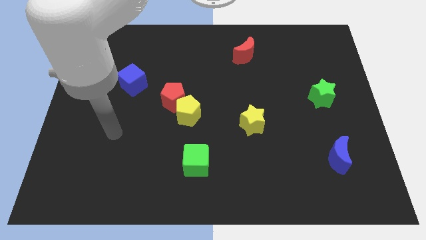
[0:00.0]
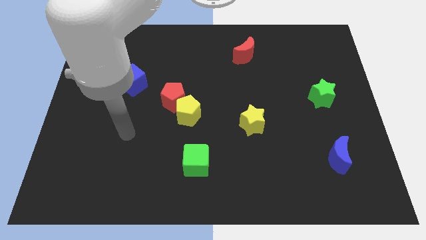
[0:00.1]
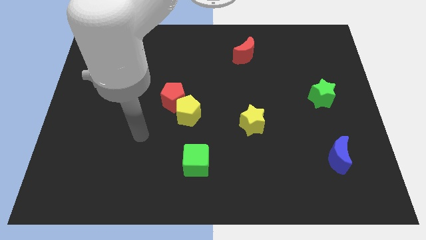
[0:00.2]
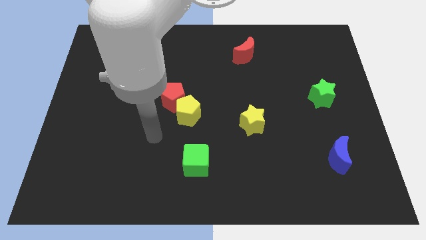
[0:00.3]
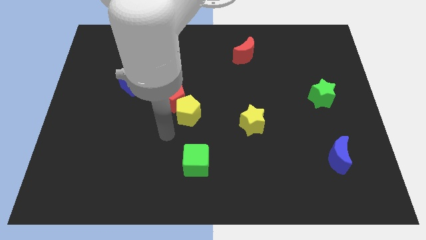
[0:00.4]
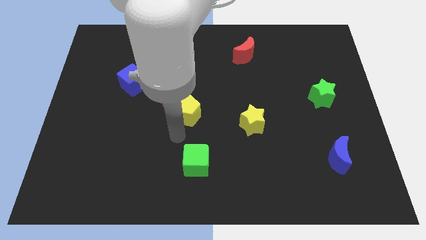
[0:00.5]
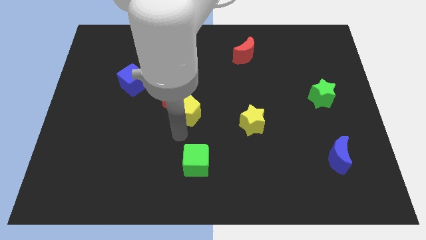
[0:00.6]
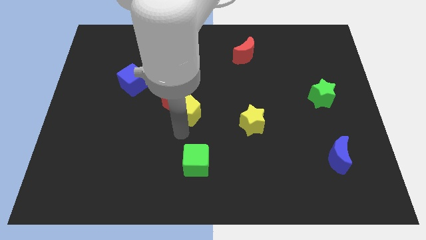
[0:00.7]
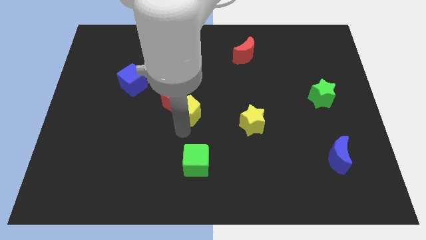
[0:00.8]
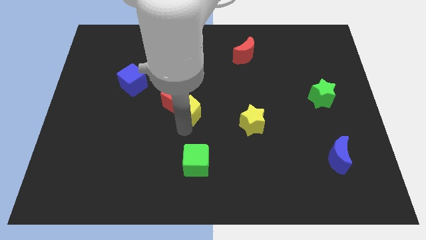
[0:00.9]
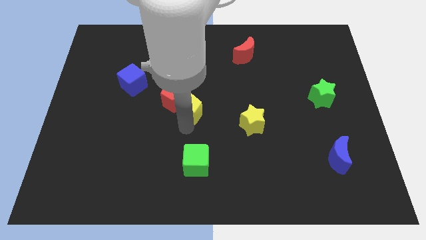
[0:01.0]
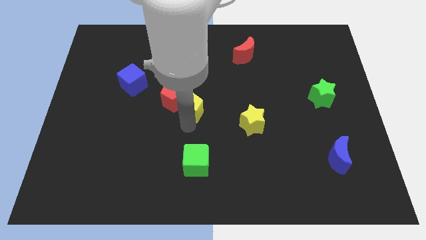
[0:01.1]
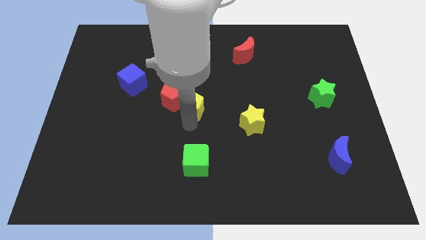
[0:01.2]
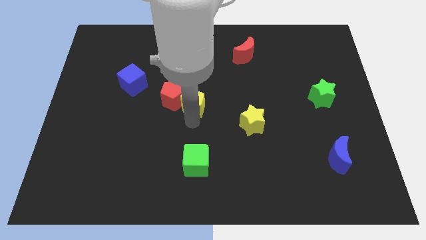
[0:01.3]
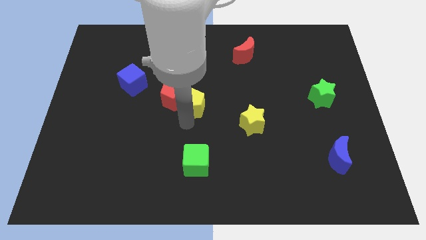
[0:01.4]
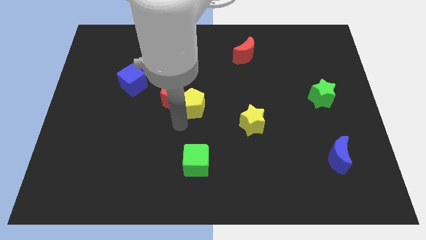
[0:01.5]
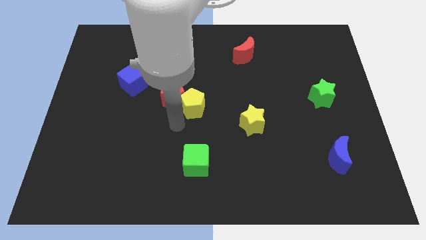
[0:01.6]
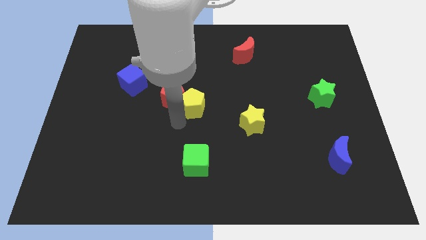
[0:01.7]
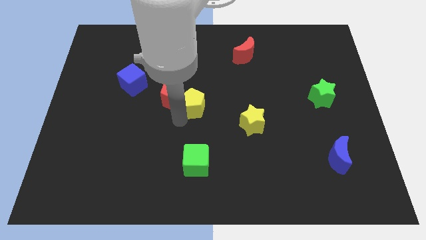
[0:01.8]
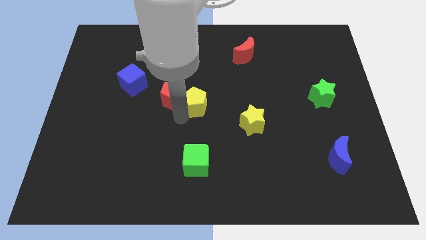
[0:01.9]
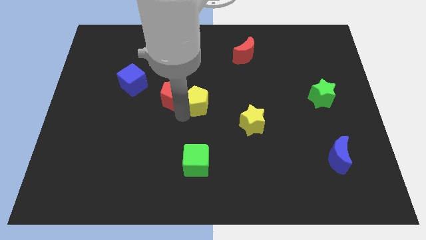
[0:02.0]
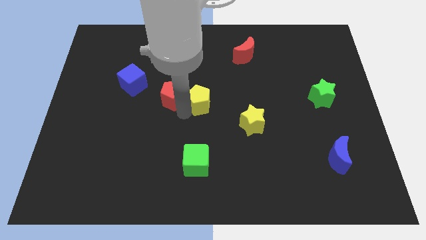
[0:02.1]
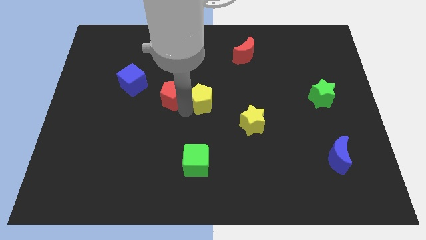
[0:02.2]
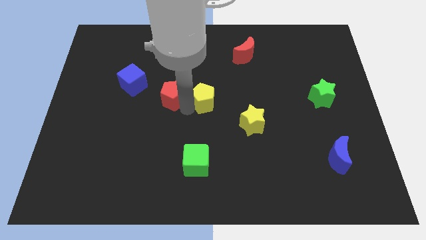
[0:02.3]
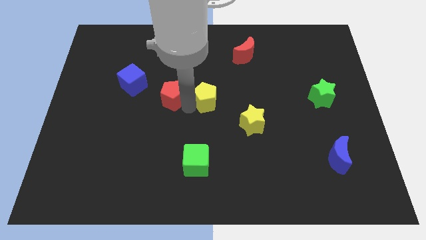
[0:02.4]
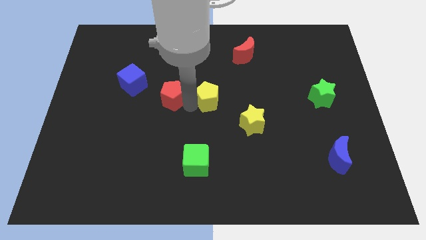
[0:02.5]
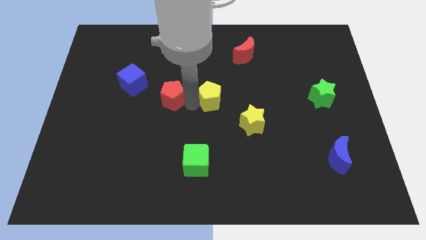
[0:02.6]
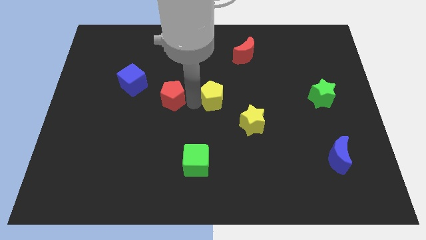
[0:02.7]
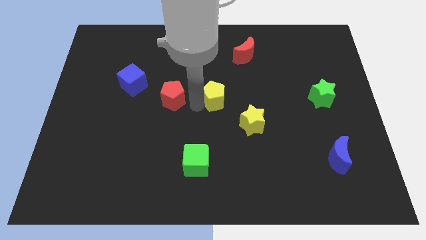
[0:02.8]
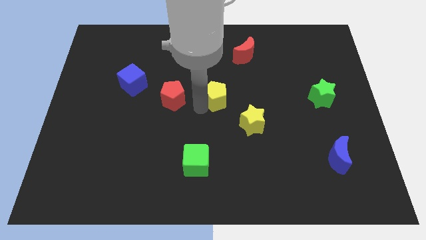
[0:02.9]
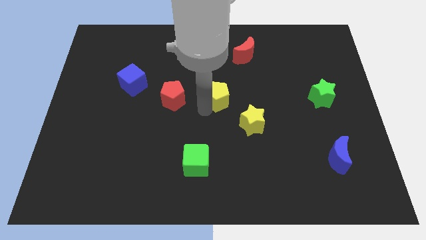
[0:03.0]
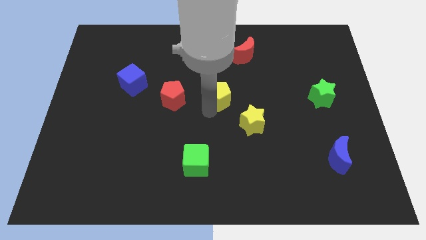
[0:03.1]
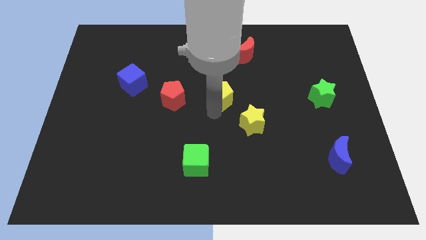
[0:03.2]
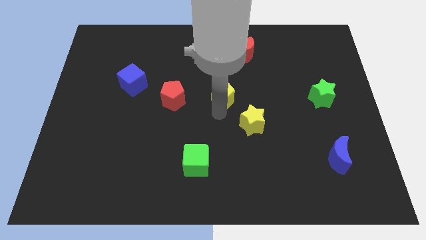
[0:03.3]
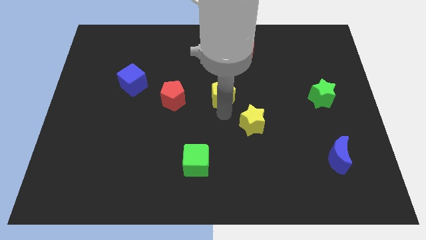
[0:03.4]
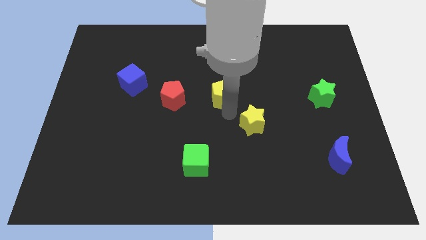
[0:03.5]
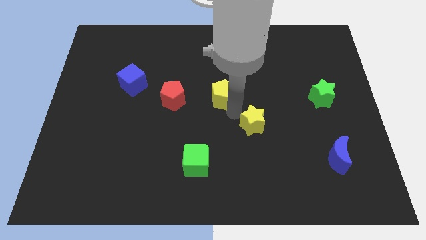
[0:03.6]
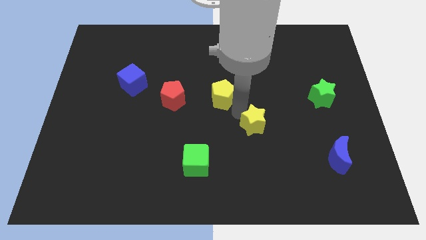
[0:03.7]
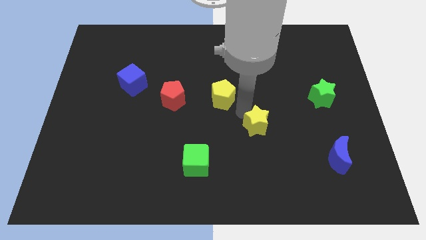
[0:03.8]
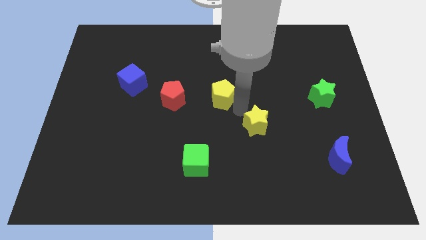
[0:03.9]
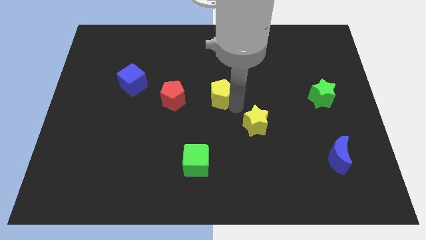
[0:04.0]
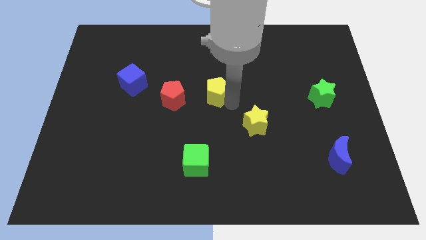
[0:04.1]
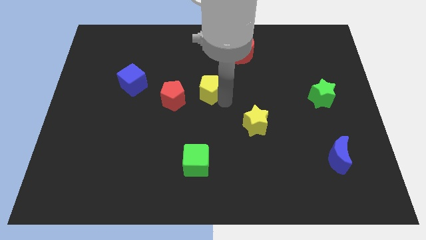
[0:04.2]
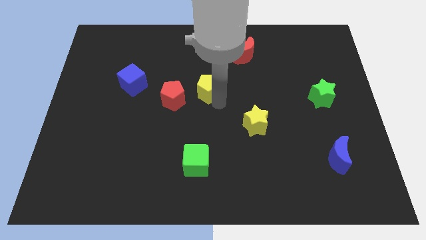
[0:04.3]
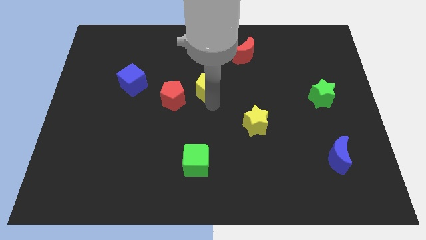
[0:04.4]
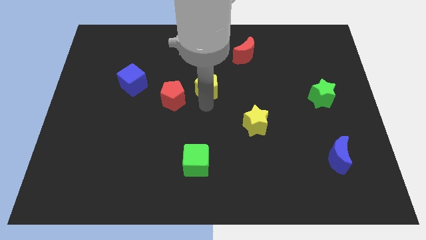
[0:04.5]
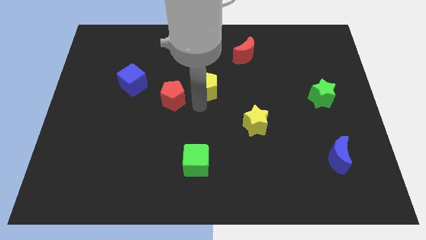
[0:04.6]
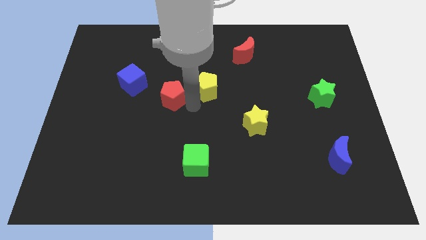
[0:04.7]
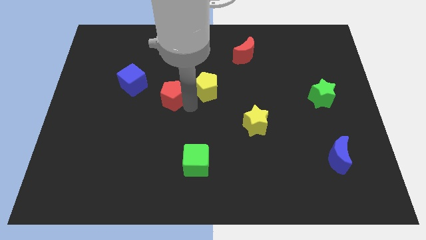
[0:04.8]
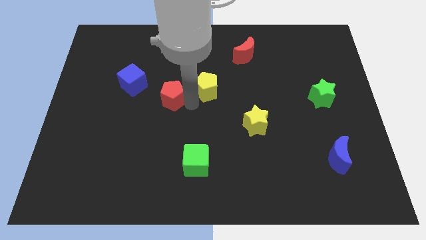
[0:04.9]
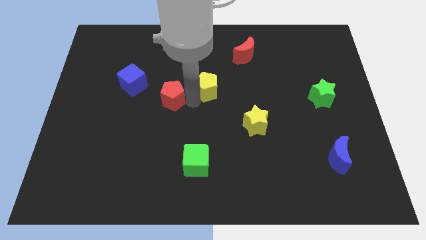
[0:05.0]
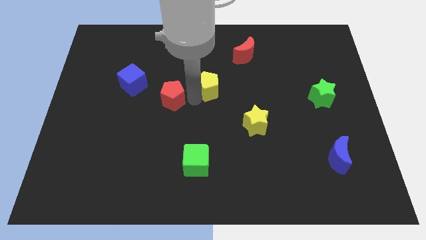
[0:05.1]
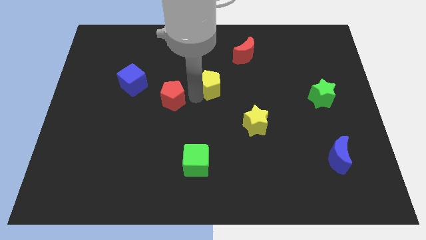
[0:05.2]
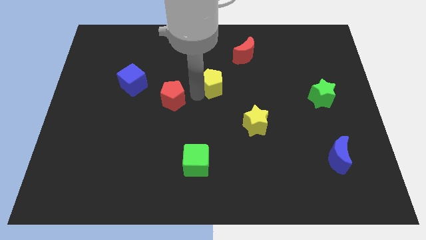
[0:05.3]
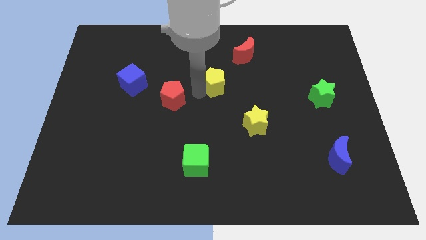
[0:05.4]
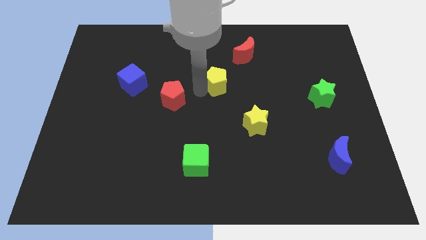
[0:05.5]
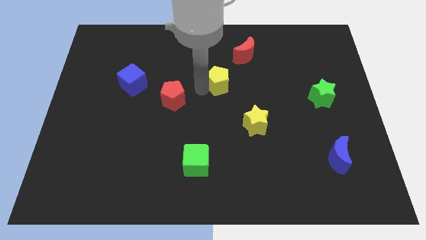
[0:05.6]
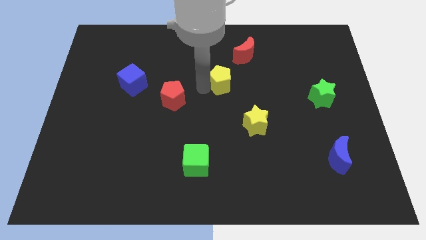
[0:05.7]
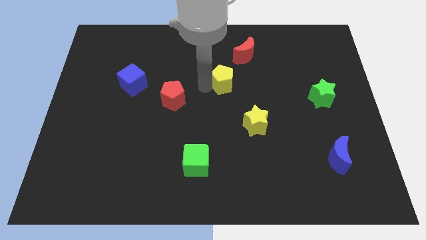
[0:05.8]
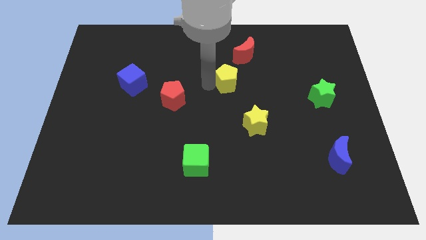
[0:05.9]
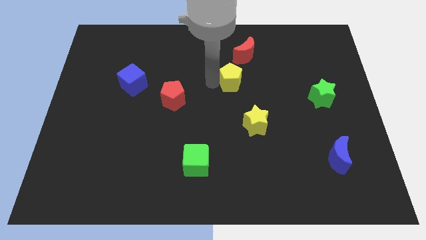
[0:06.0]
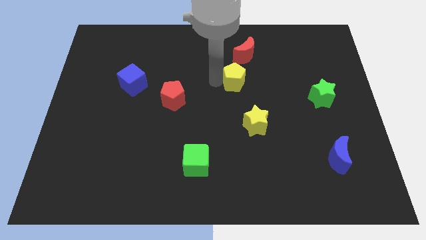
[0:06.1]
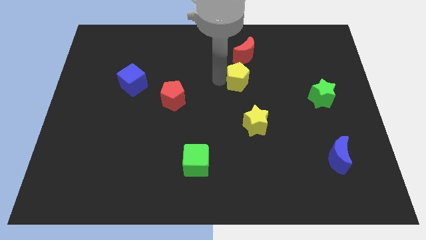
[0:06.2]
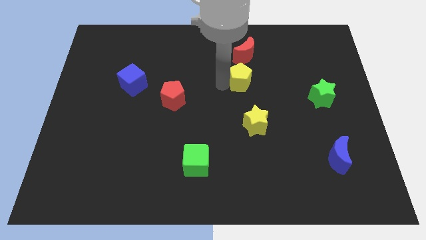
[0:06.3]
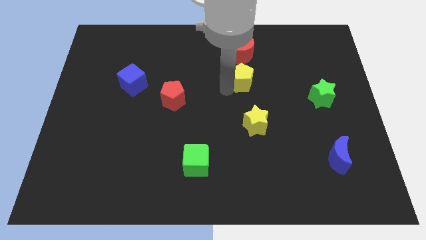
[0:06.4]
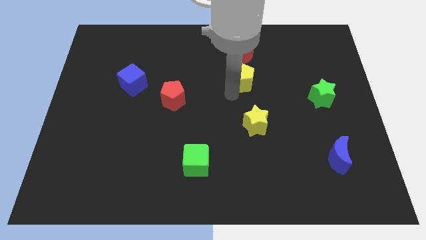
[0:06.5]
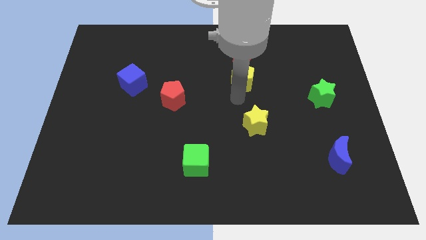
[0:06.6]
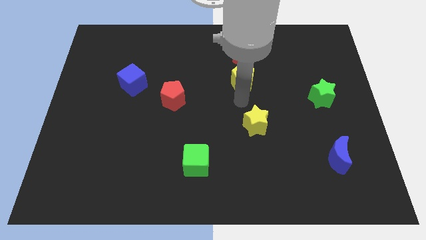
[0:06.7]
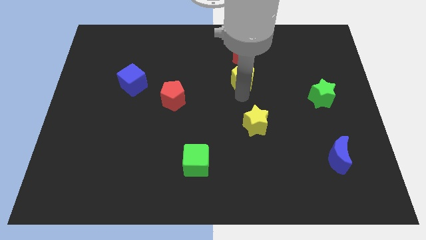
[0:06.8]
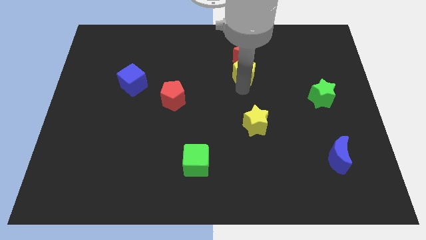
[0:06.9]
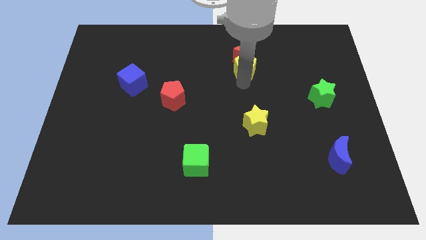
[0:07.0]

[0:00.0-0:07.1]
push the yellow pentagon next to the red moon

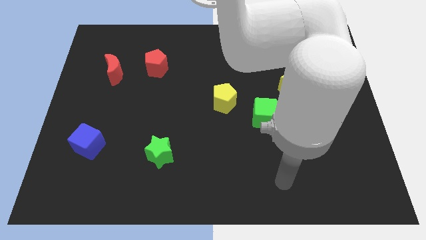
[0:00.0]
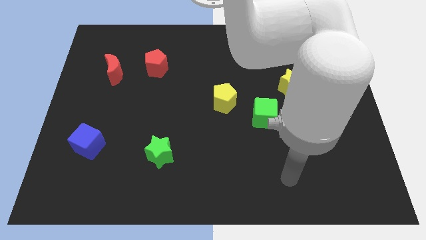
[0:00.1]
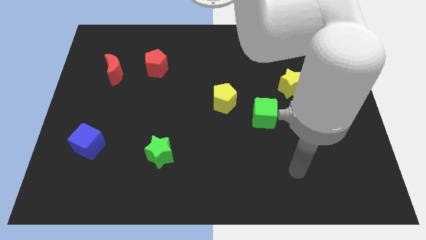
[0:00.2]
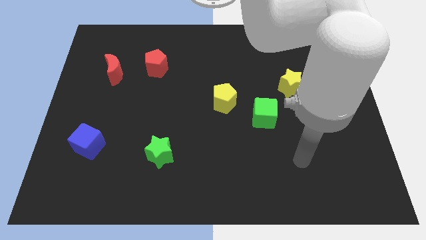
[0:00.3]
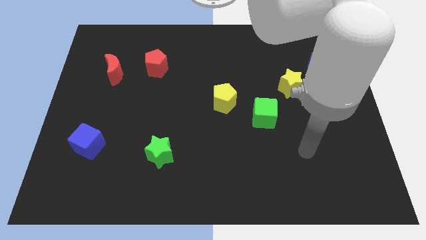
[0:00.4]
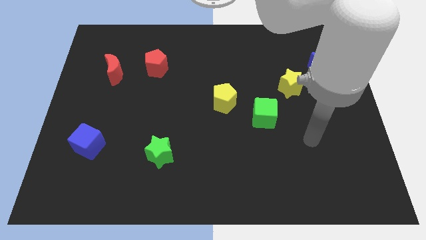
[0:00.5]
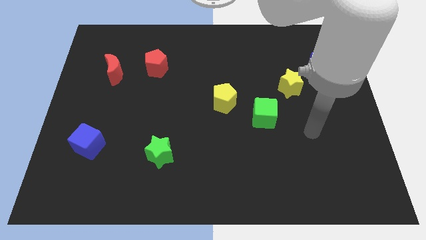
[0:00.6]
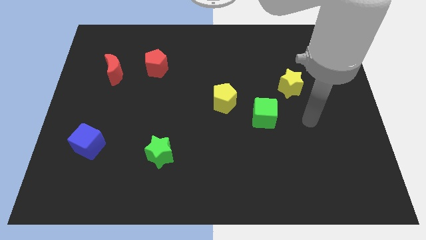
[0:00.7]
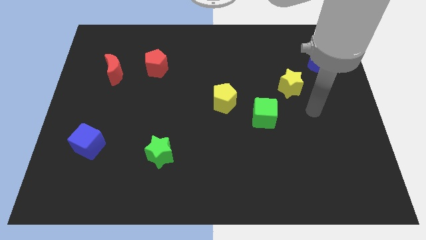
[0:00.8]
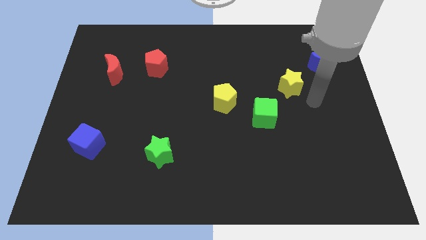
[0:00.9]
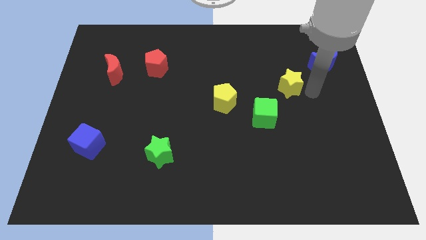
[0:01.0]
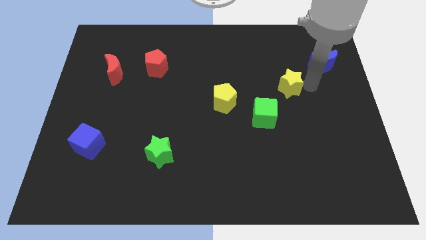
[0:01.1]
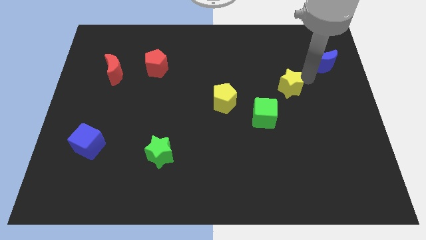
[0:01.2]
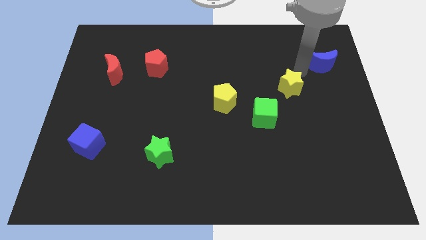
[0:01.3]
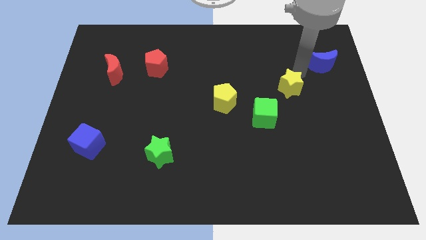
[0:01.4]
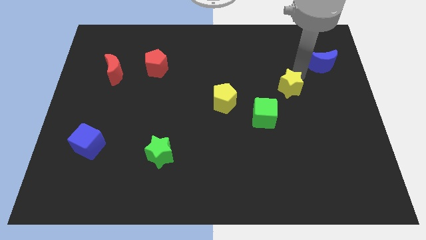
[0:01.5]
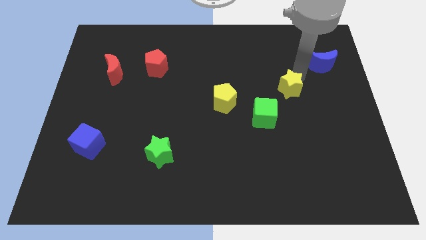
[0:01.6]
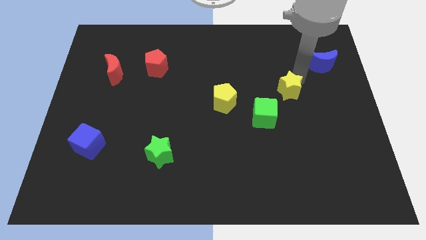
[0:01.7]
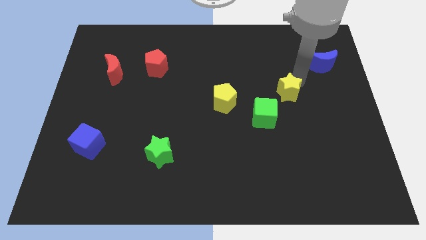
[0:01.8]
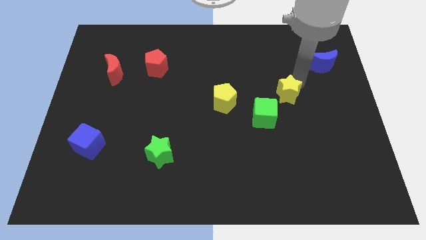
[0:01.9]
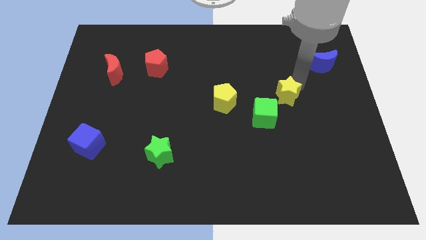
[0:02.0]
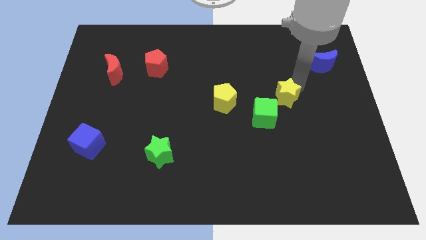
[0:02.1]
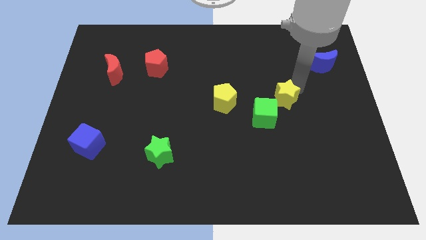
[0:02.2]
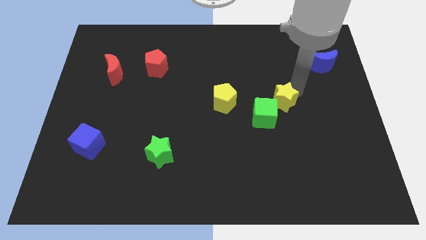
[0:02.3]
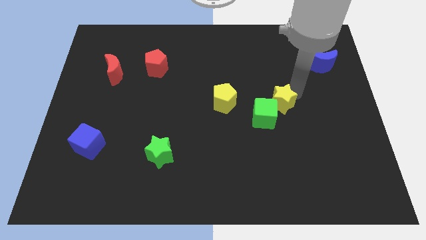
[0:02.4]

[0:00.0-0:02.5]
move the yellow star close to the green cube
